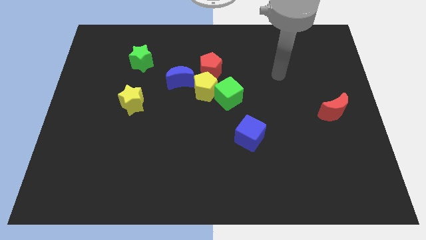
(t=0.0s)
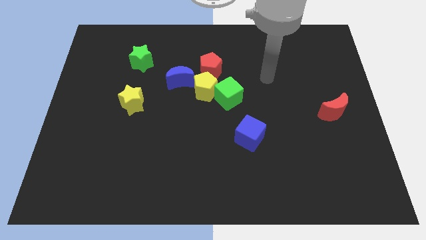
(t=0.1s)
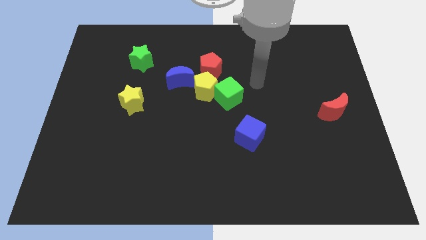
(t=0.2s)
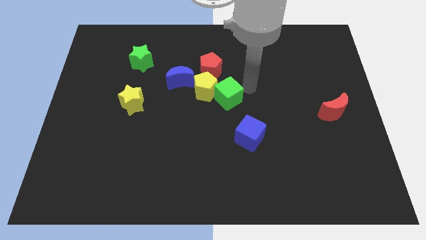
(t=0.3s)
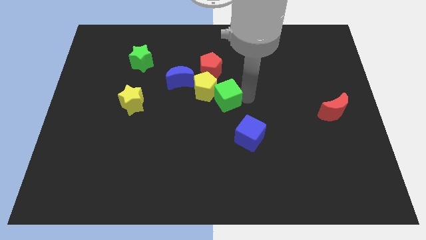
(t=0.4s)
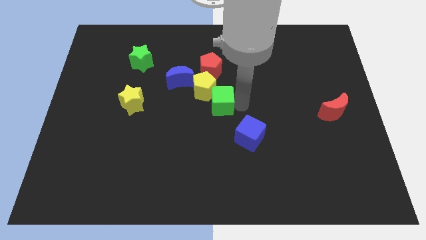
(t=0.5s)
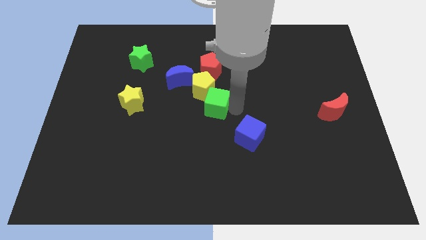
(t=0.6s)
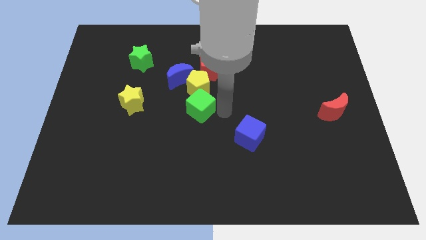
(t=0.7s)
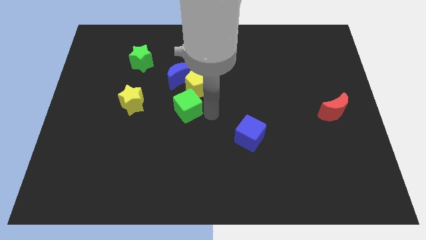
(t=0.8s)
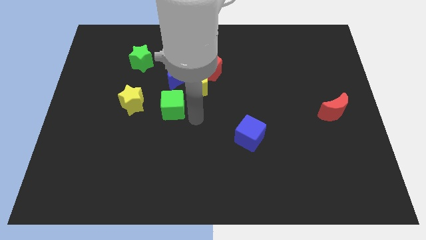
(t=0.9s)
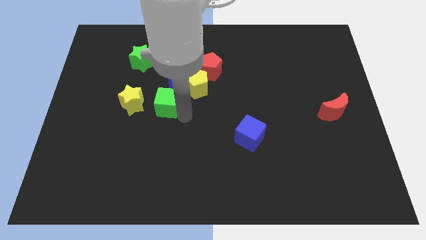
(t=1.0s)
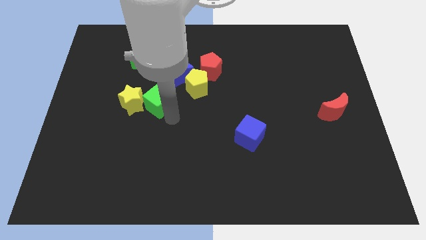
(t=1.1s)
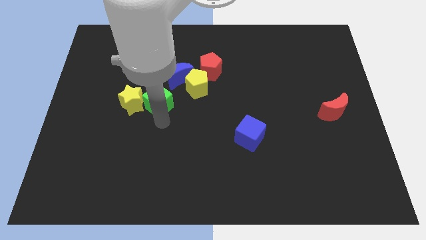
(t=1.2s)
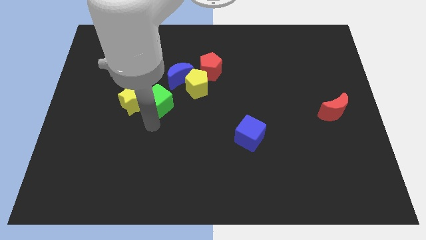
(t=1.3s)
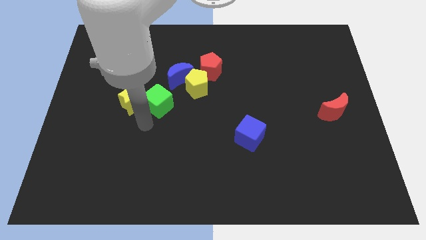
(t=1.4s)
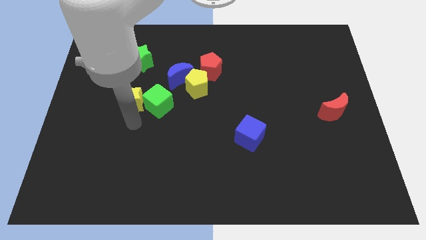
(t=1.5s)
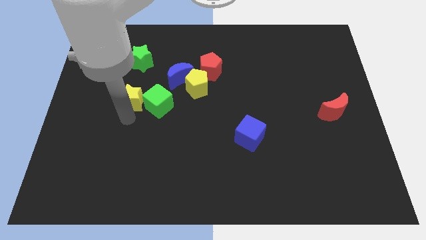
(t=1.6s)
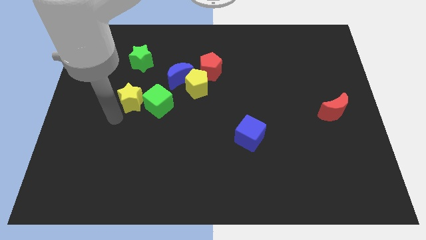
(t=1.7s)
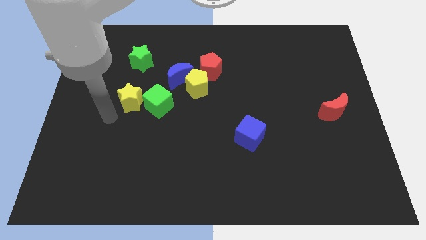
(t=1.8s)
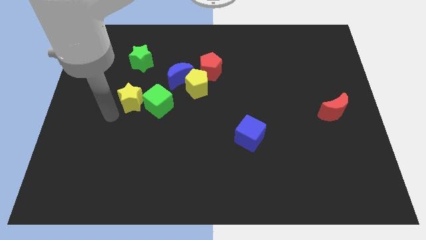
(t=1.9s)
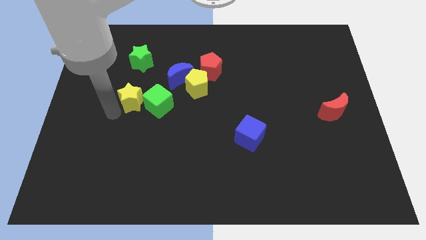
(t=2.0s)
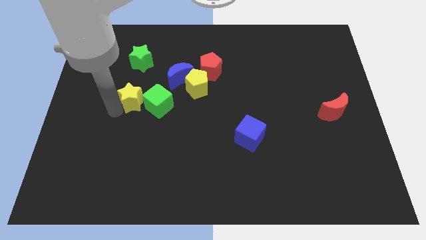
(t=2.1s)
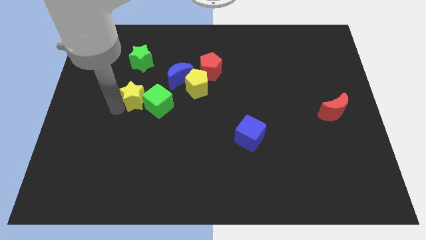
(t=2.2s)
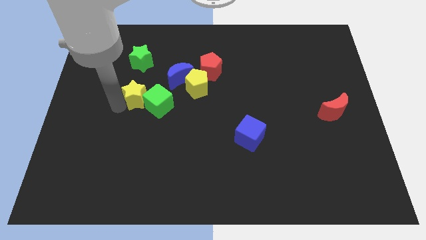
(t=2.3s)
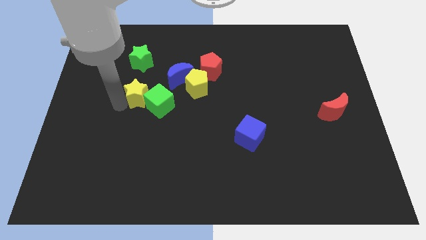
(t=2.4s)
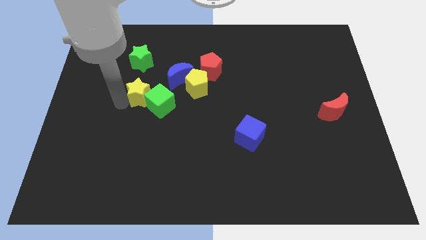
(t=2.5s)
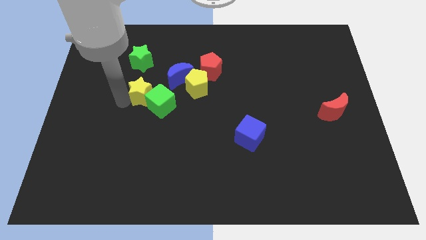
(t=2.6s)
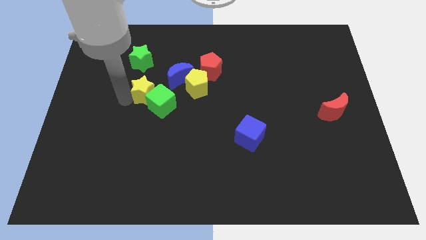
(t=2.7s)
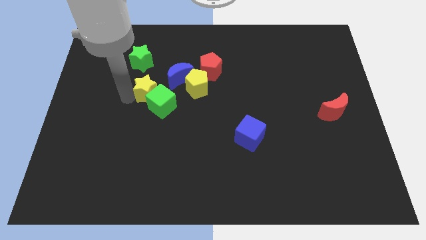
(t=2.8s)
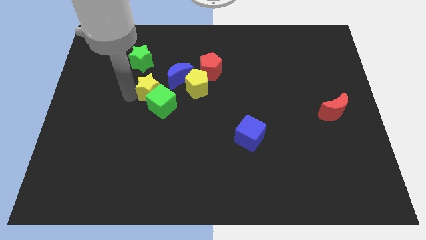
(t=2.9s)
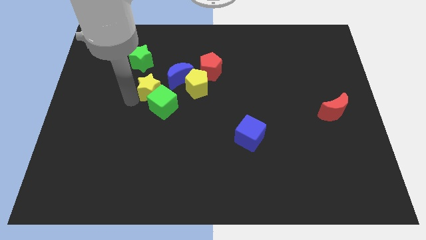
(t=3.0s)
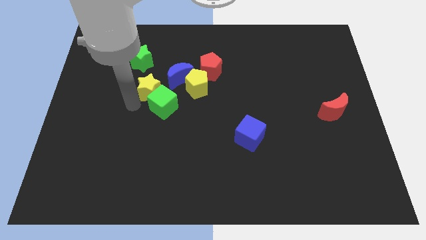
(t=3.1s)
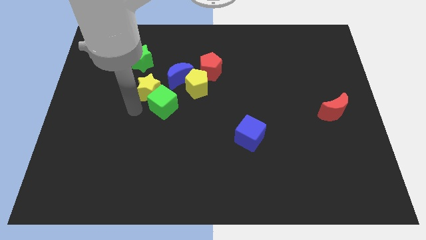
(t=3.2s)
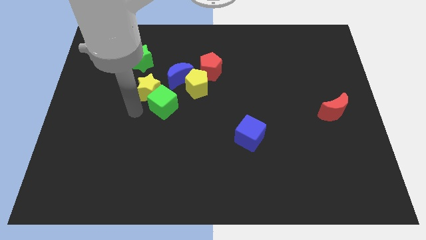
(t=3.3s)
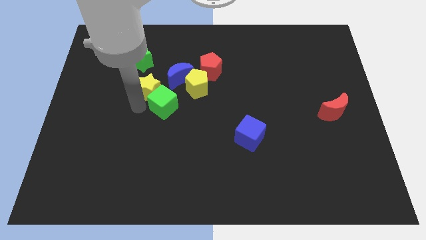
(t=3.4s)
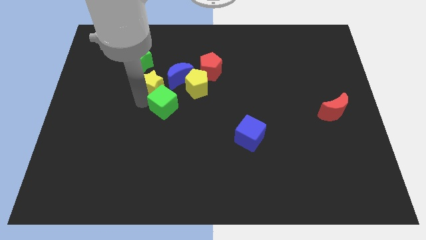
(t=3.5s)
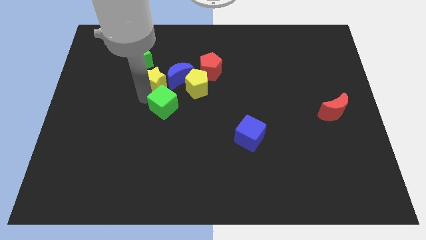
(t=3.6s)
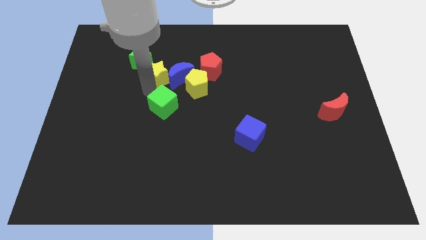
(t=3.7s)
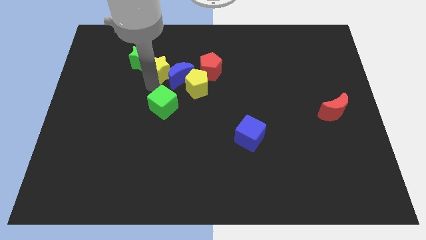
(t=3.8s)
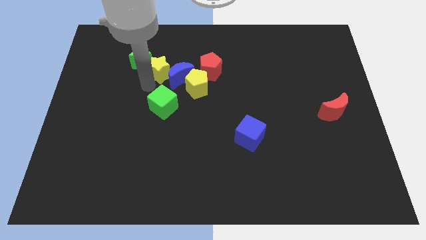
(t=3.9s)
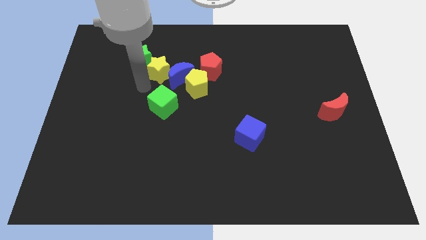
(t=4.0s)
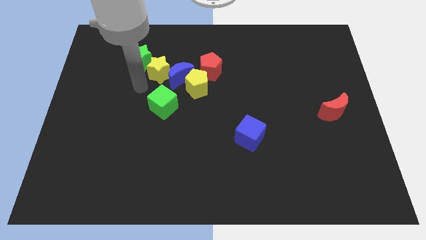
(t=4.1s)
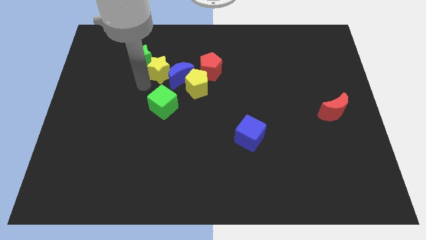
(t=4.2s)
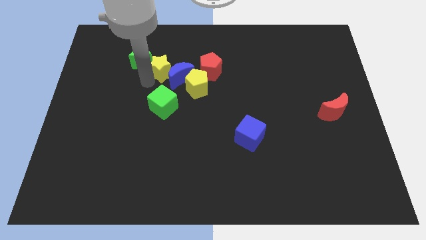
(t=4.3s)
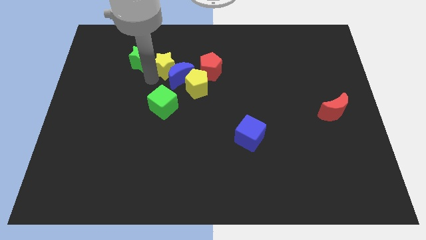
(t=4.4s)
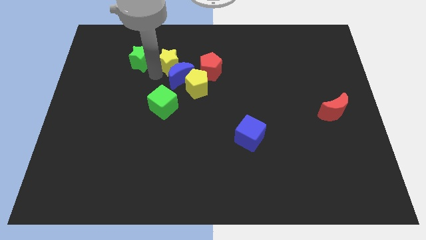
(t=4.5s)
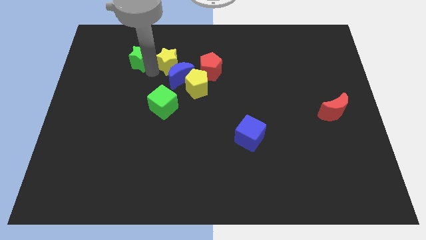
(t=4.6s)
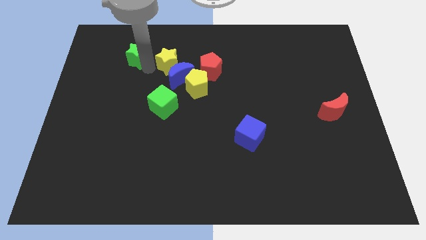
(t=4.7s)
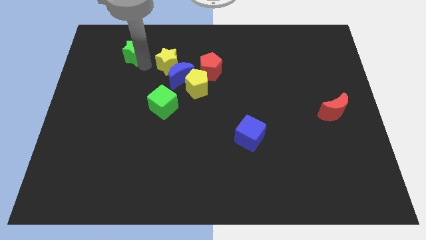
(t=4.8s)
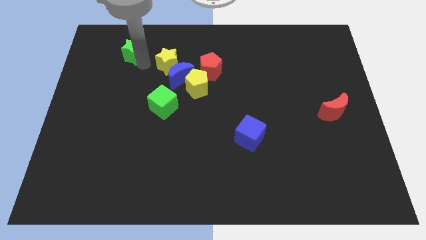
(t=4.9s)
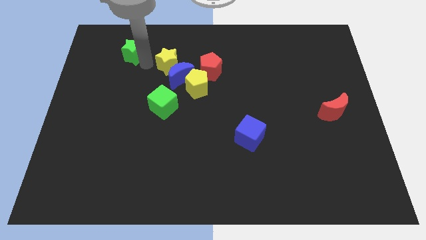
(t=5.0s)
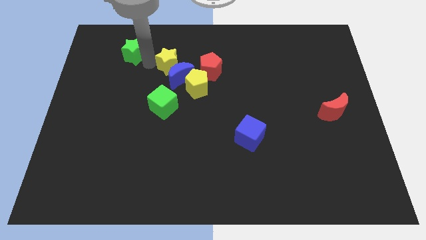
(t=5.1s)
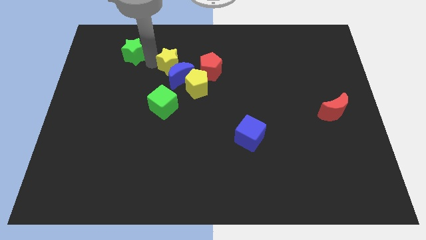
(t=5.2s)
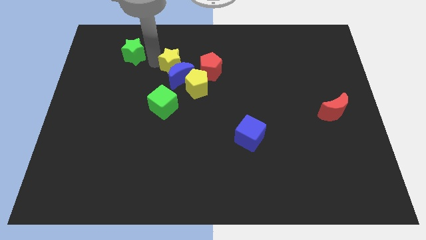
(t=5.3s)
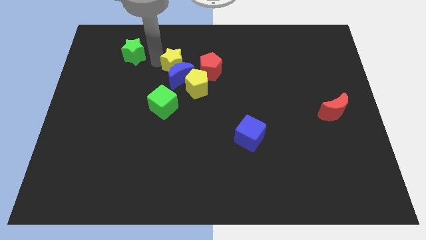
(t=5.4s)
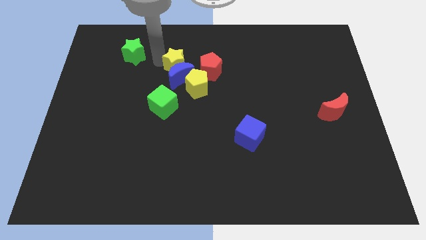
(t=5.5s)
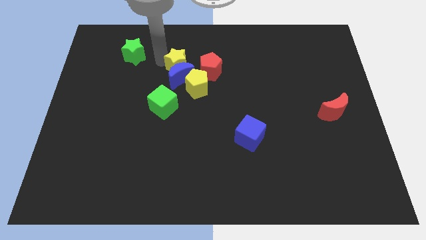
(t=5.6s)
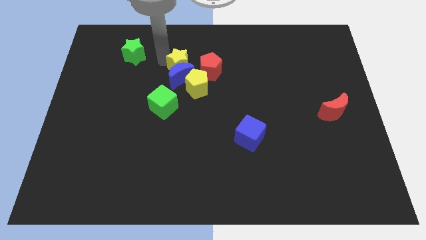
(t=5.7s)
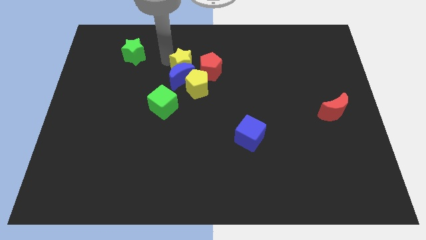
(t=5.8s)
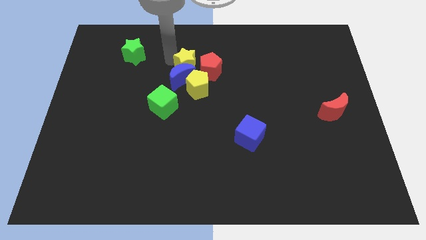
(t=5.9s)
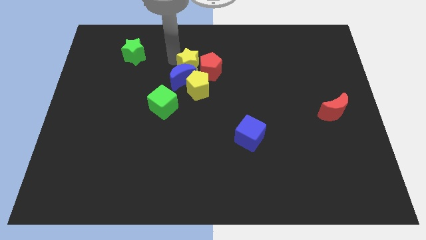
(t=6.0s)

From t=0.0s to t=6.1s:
push the yellow star to the red pentagon

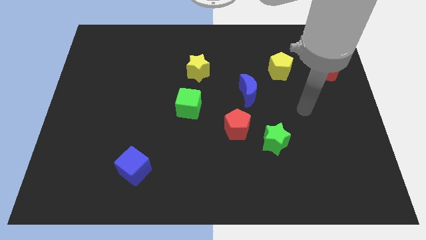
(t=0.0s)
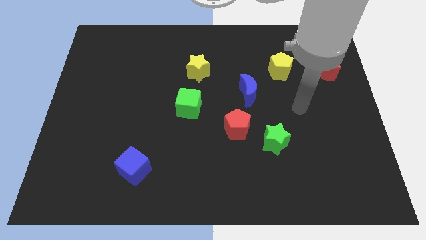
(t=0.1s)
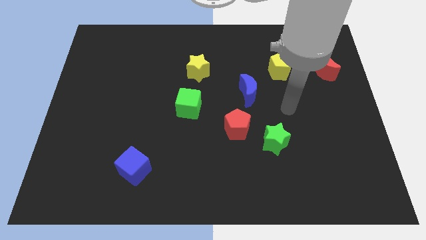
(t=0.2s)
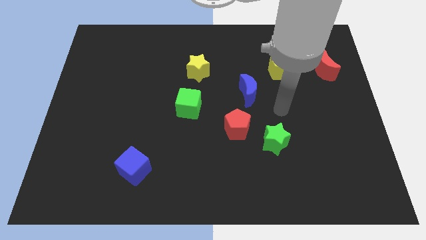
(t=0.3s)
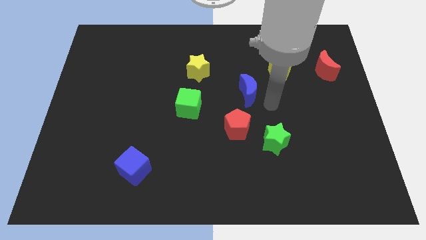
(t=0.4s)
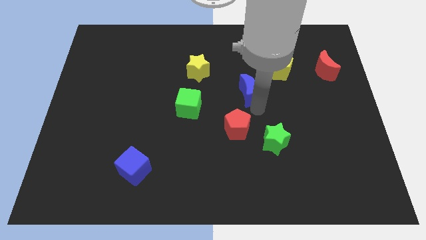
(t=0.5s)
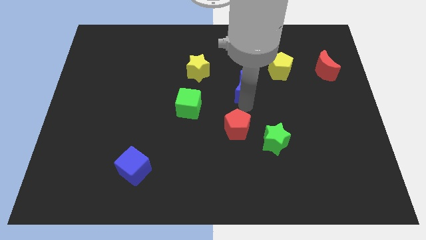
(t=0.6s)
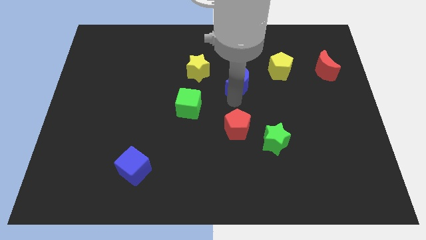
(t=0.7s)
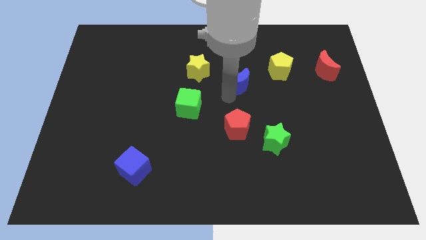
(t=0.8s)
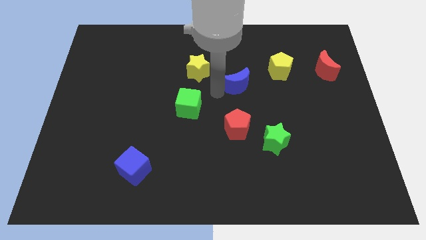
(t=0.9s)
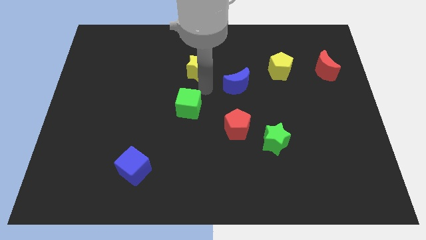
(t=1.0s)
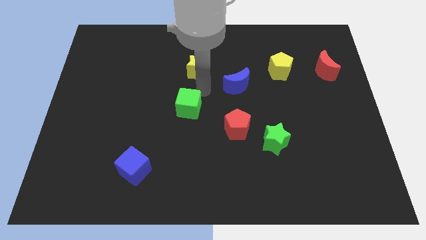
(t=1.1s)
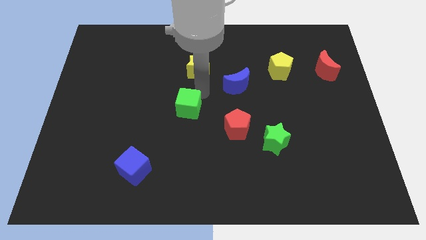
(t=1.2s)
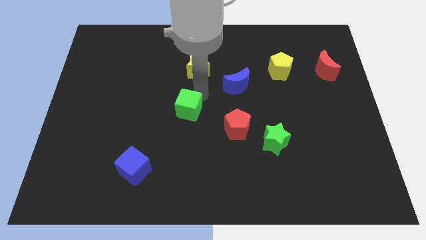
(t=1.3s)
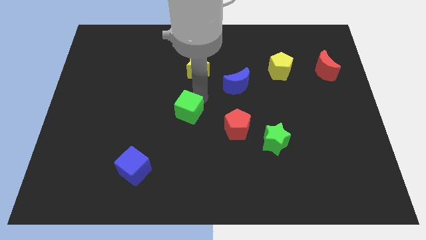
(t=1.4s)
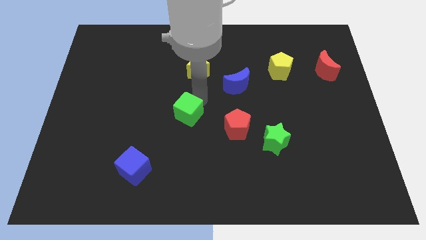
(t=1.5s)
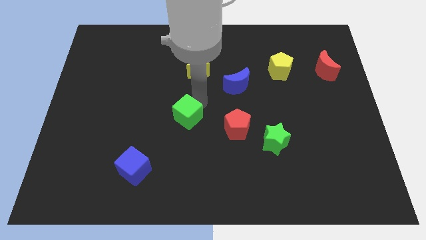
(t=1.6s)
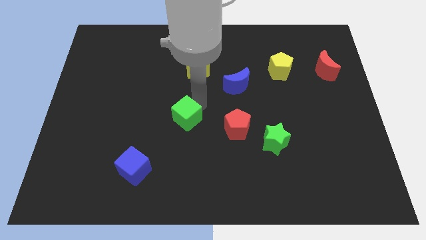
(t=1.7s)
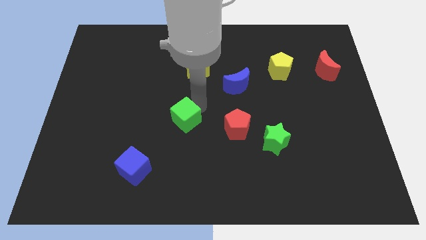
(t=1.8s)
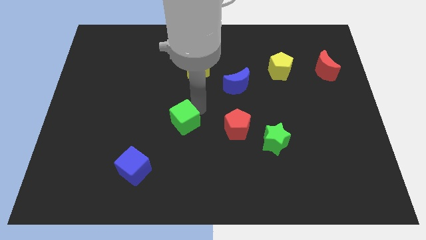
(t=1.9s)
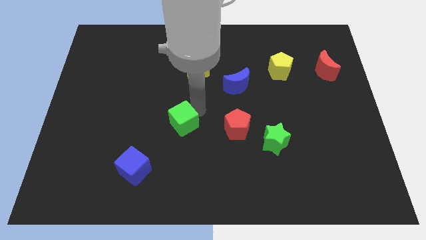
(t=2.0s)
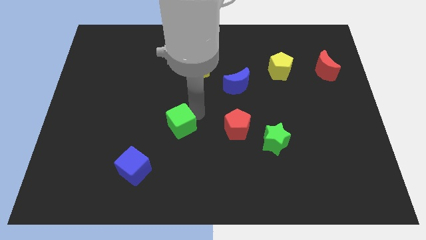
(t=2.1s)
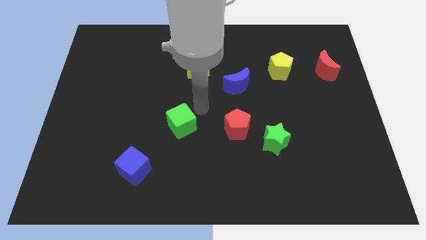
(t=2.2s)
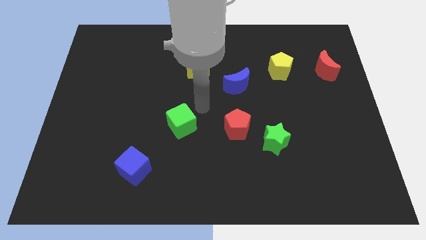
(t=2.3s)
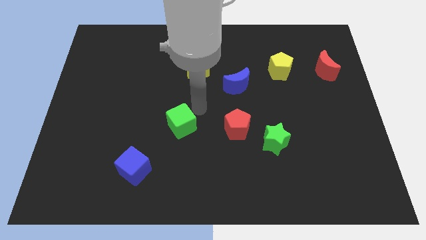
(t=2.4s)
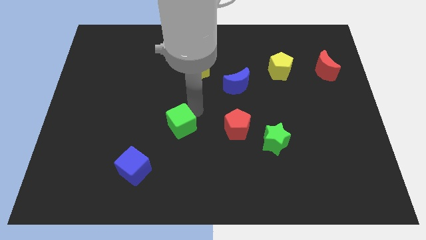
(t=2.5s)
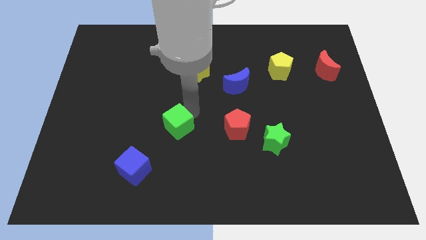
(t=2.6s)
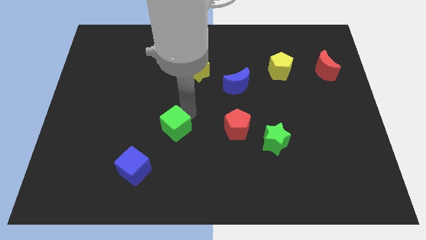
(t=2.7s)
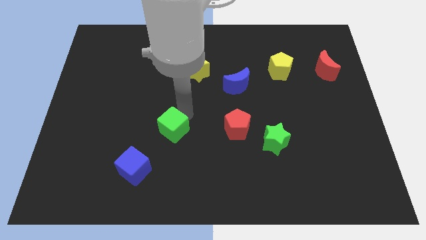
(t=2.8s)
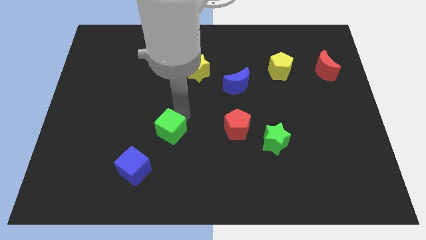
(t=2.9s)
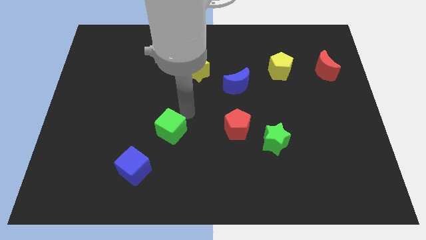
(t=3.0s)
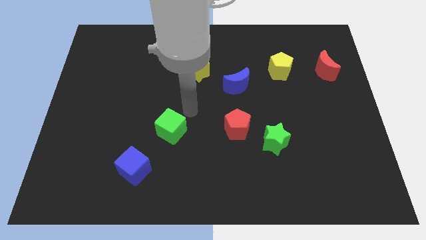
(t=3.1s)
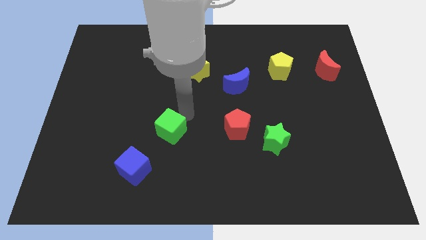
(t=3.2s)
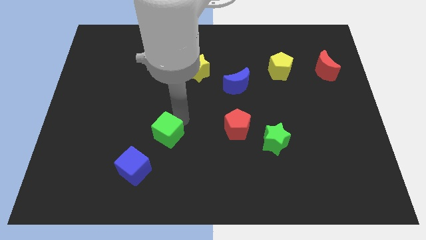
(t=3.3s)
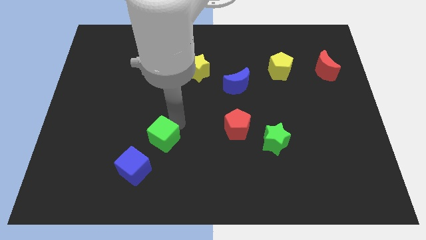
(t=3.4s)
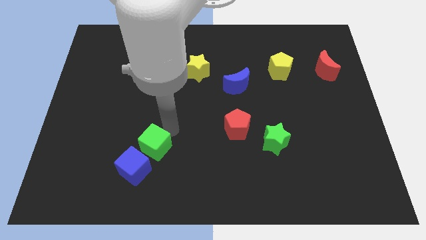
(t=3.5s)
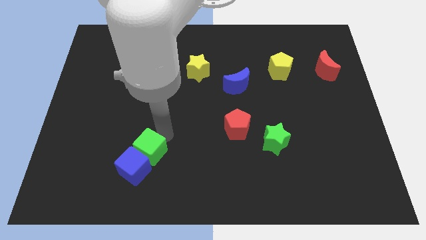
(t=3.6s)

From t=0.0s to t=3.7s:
put the green cube next to the blue cube
